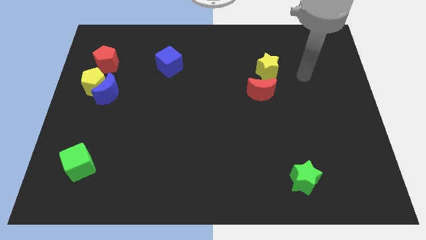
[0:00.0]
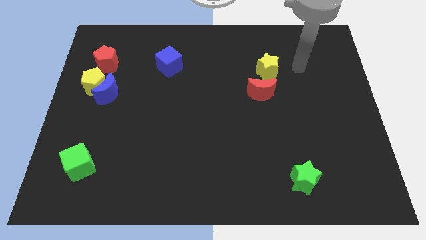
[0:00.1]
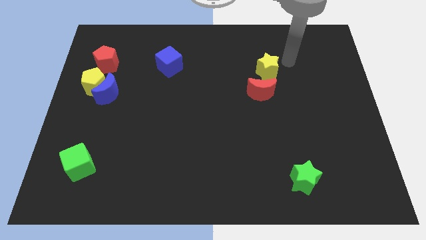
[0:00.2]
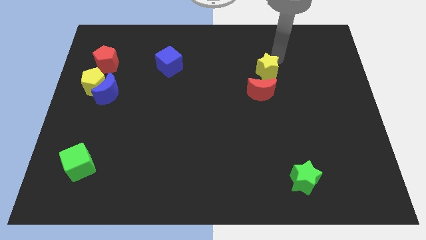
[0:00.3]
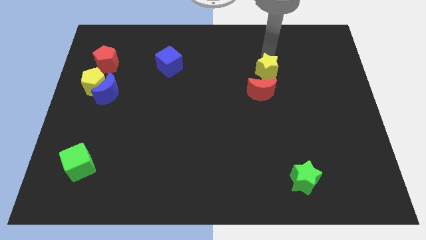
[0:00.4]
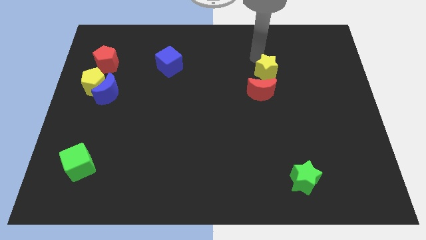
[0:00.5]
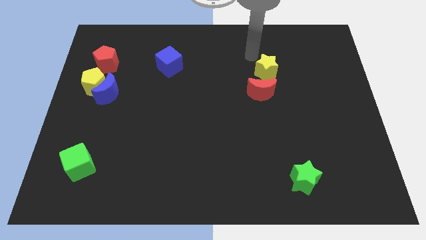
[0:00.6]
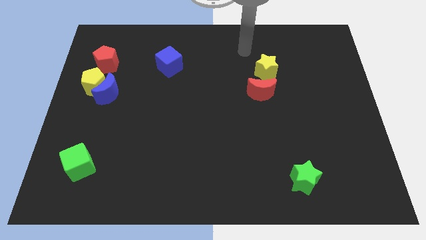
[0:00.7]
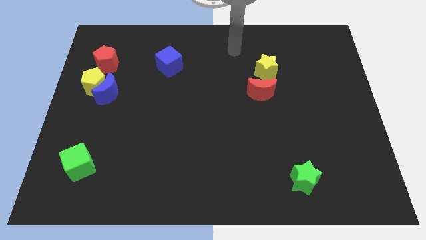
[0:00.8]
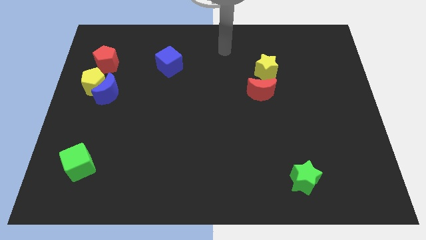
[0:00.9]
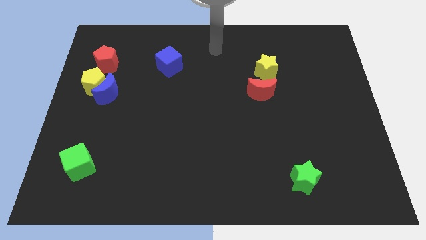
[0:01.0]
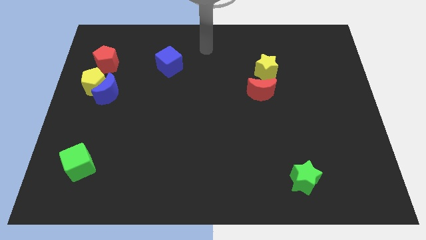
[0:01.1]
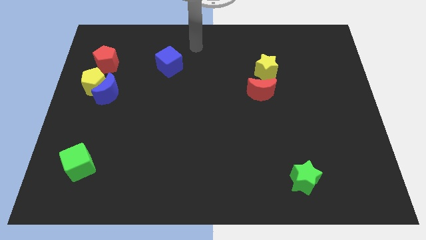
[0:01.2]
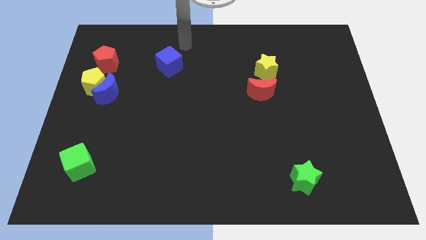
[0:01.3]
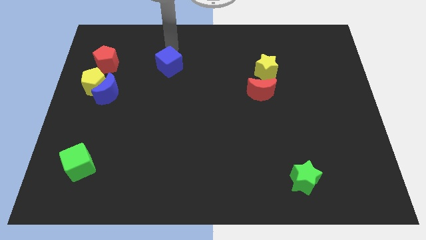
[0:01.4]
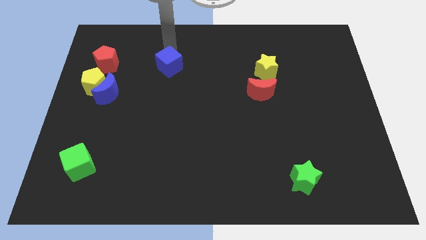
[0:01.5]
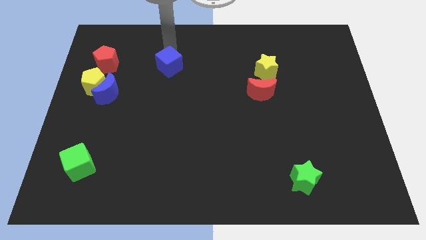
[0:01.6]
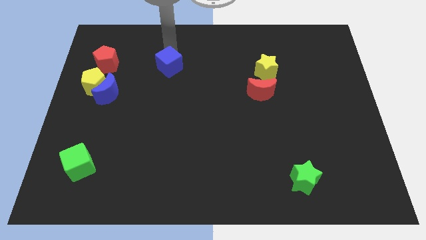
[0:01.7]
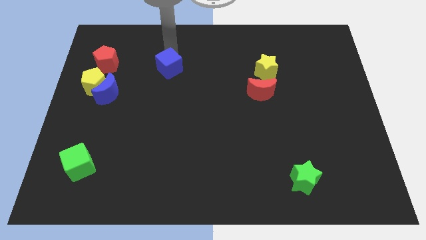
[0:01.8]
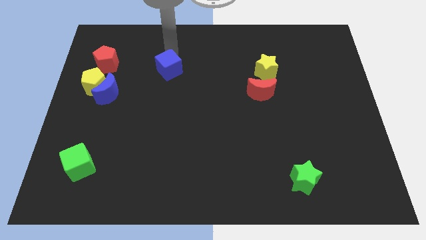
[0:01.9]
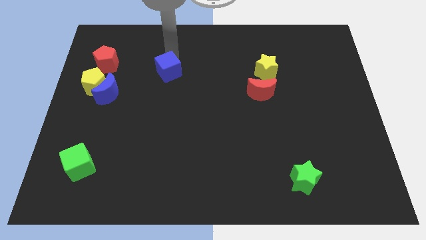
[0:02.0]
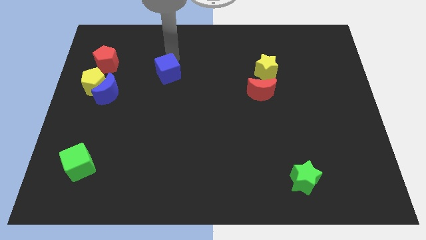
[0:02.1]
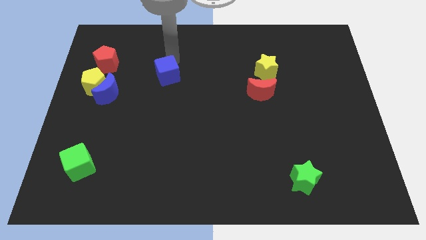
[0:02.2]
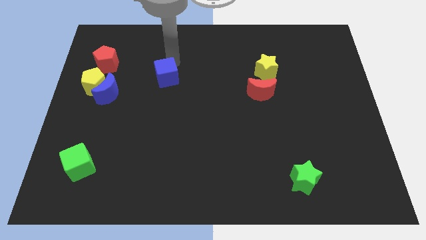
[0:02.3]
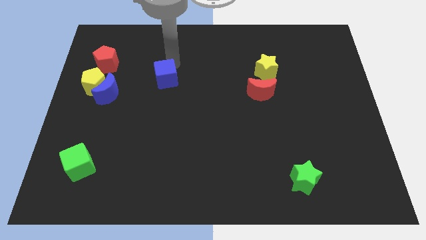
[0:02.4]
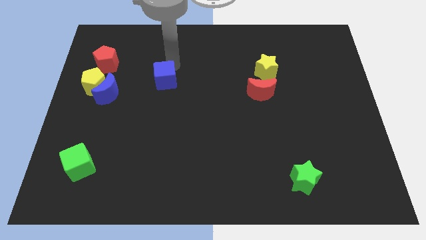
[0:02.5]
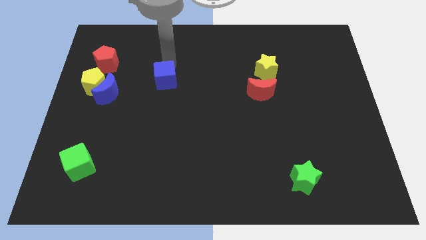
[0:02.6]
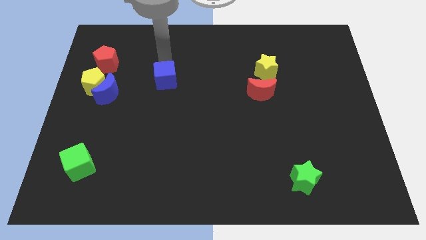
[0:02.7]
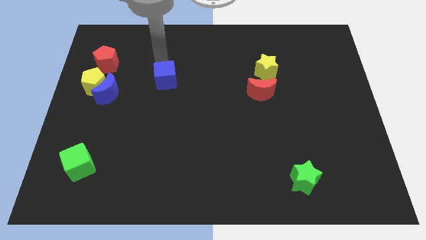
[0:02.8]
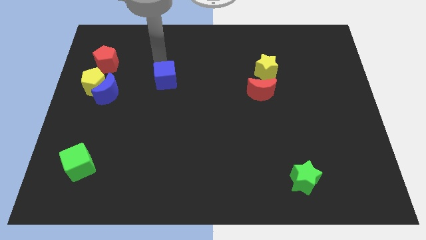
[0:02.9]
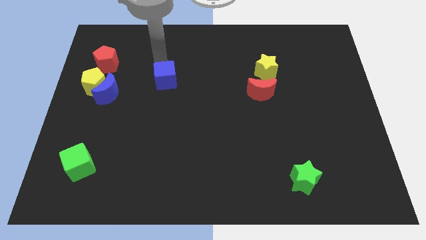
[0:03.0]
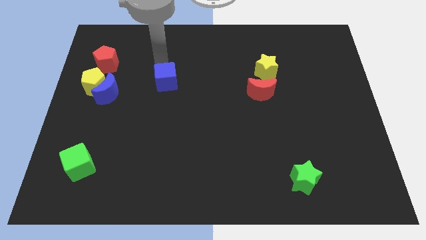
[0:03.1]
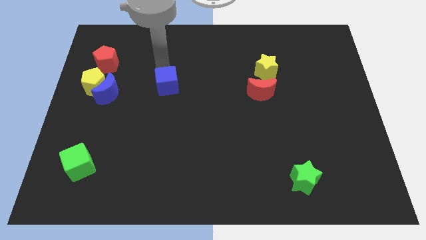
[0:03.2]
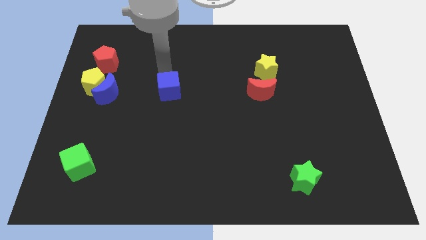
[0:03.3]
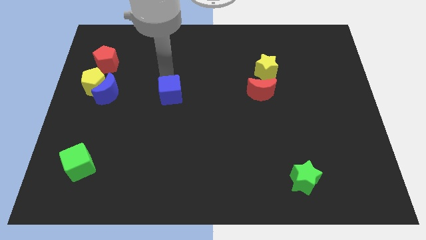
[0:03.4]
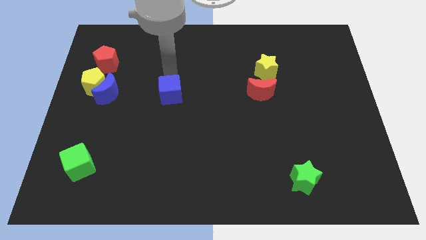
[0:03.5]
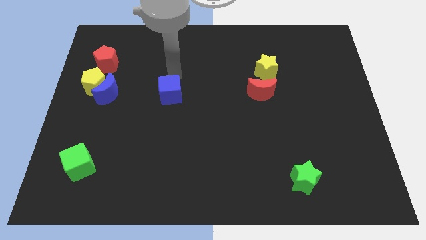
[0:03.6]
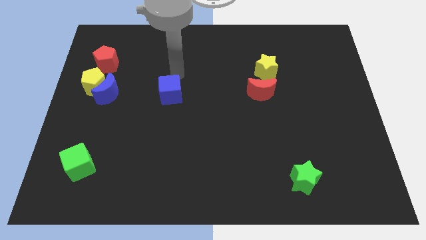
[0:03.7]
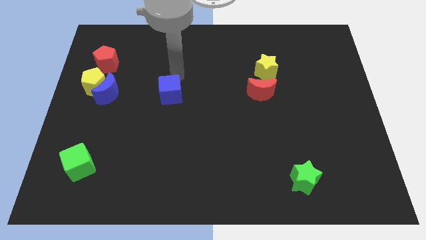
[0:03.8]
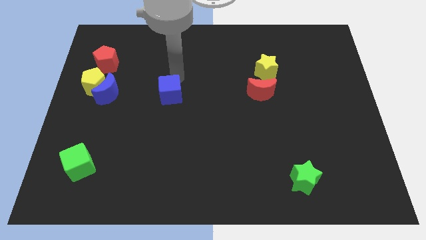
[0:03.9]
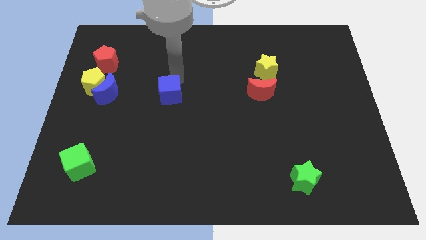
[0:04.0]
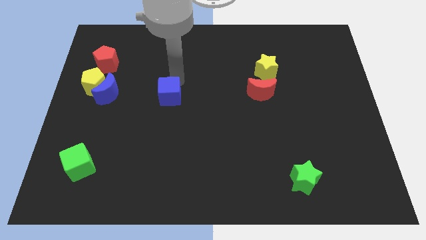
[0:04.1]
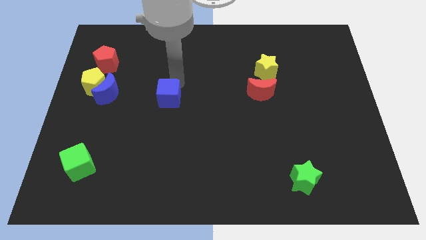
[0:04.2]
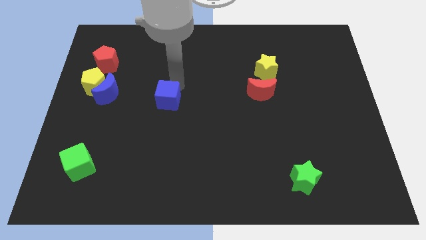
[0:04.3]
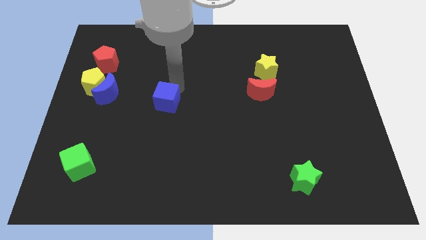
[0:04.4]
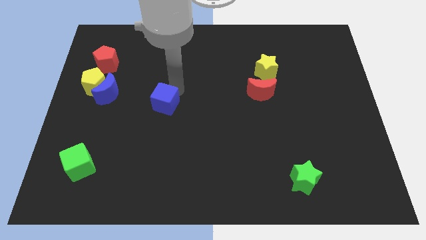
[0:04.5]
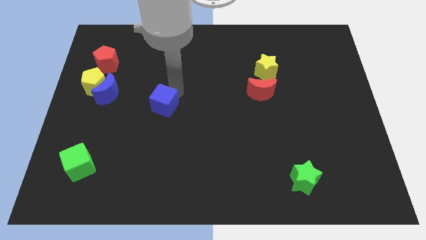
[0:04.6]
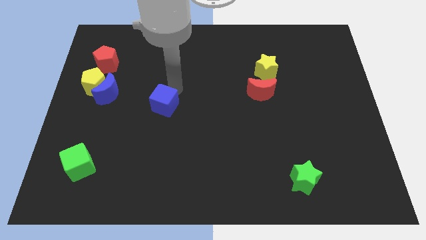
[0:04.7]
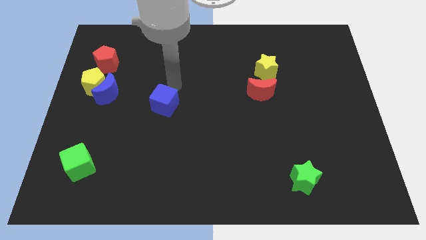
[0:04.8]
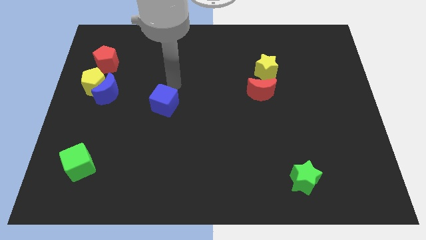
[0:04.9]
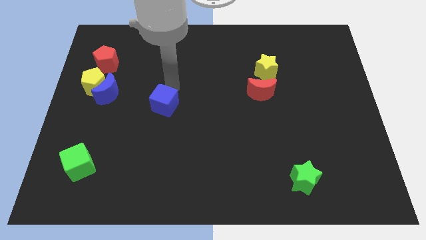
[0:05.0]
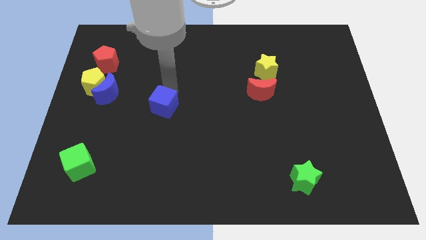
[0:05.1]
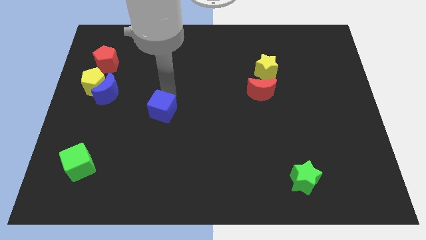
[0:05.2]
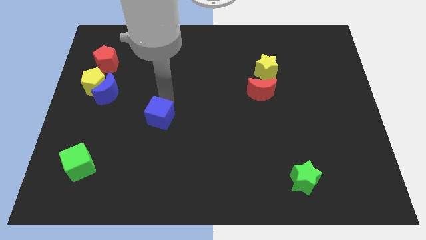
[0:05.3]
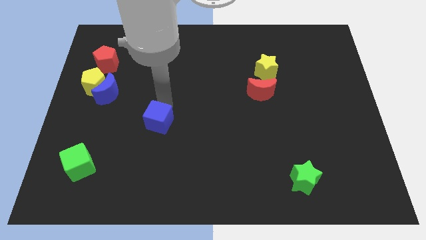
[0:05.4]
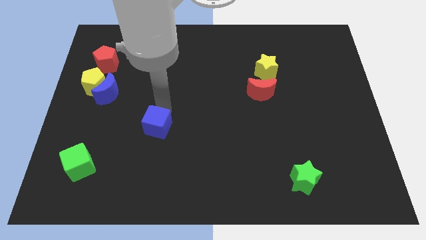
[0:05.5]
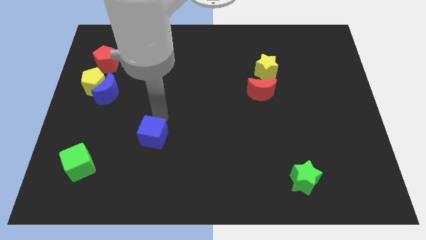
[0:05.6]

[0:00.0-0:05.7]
push the blue cube downwards

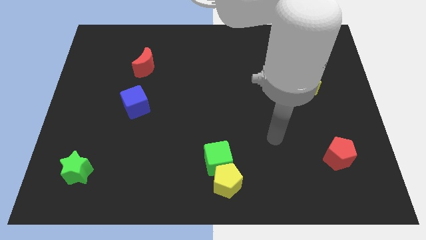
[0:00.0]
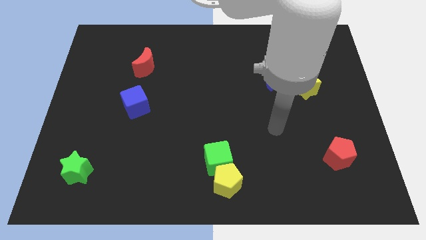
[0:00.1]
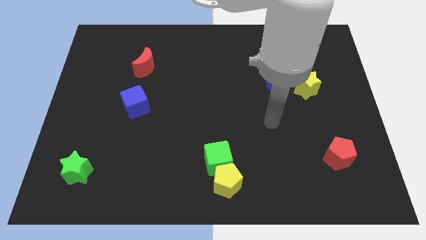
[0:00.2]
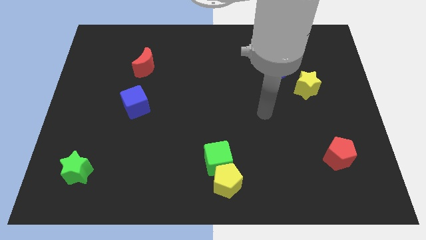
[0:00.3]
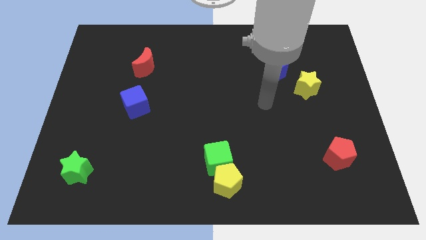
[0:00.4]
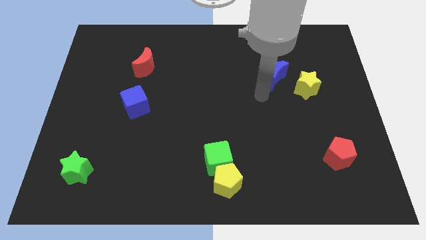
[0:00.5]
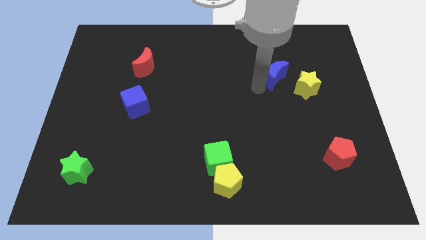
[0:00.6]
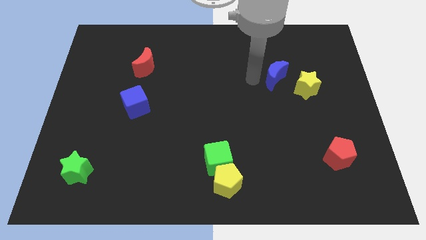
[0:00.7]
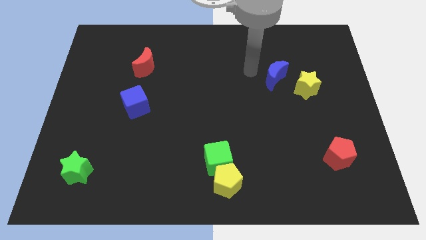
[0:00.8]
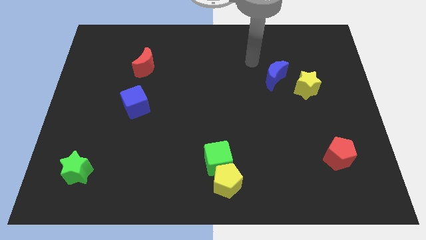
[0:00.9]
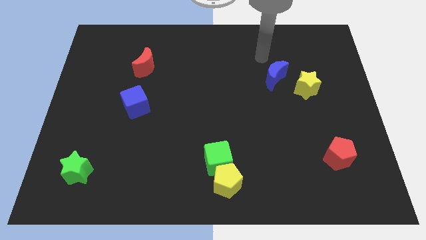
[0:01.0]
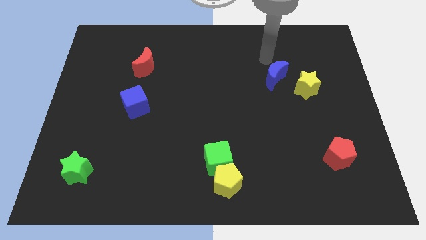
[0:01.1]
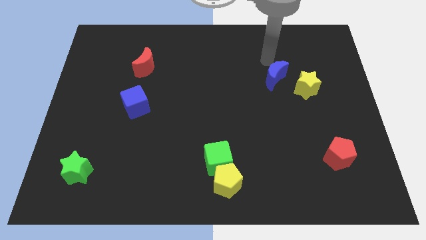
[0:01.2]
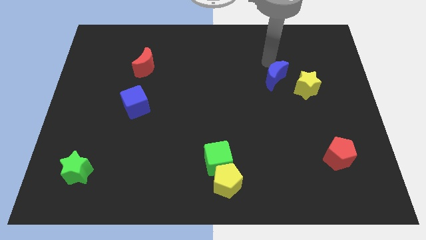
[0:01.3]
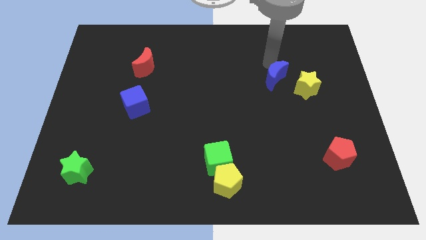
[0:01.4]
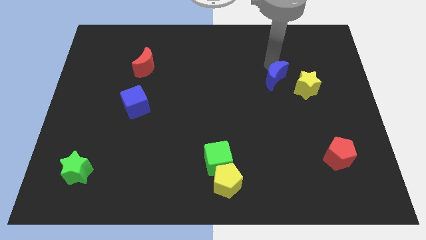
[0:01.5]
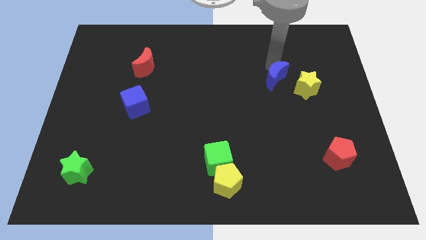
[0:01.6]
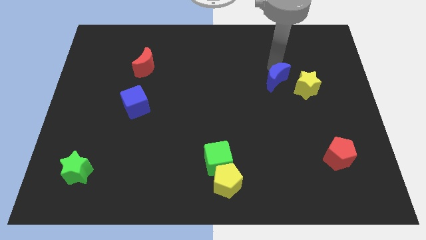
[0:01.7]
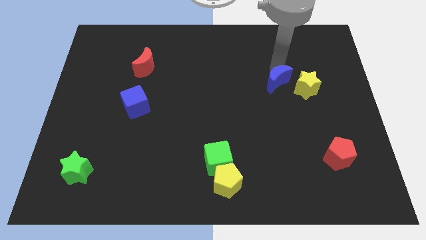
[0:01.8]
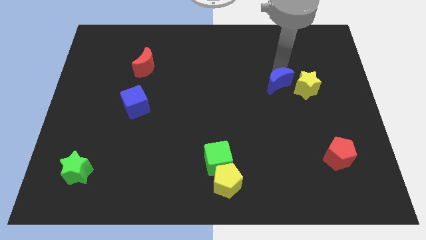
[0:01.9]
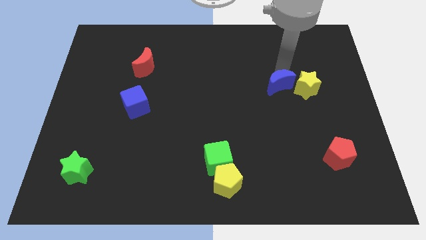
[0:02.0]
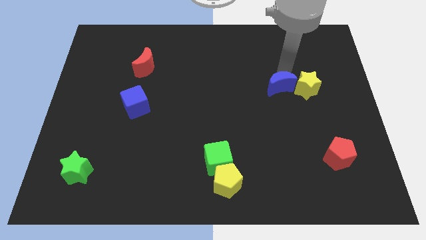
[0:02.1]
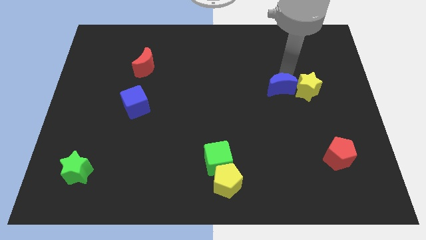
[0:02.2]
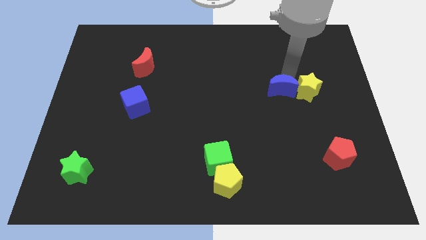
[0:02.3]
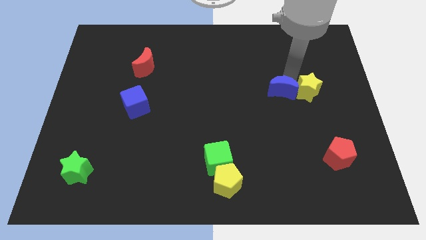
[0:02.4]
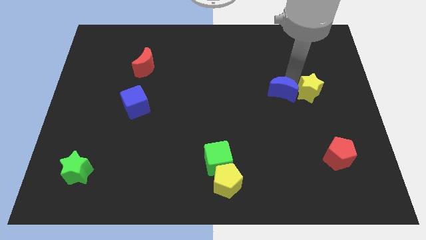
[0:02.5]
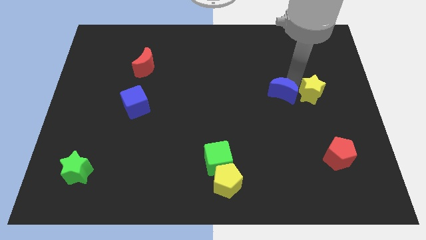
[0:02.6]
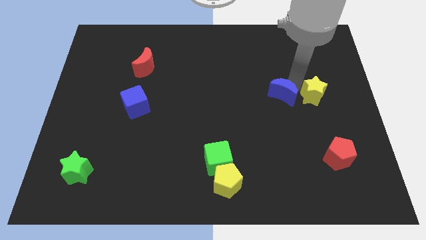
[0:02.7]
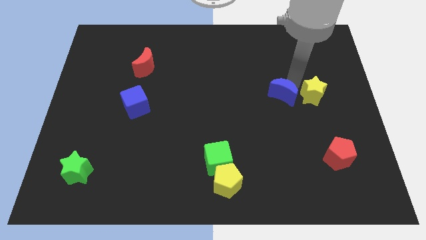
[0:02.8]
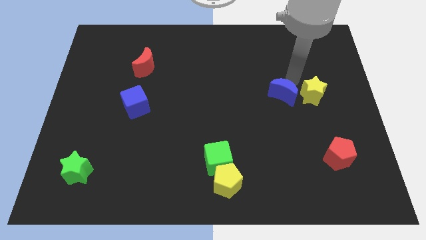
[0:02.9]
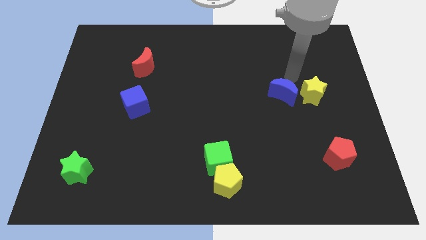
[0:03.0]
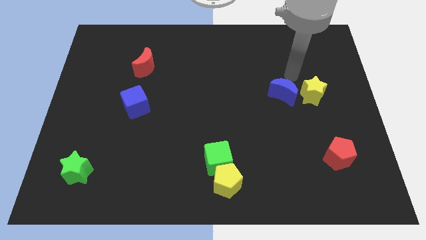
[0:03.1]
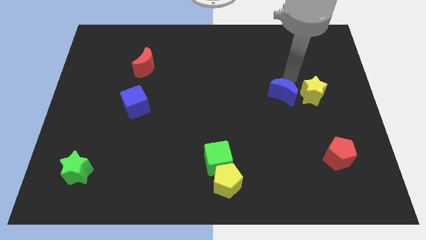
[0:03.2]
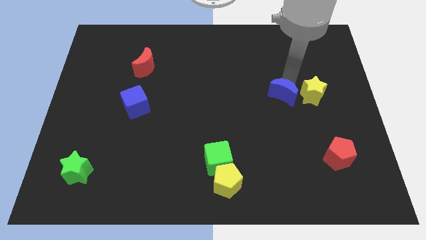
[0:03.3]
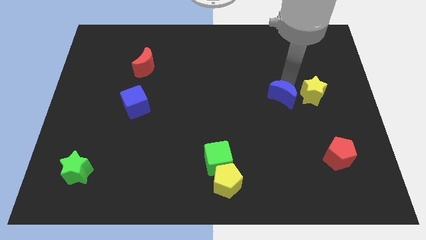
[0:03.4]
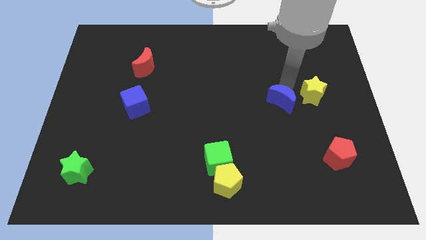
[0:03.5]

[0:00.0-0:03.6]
slide the blue moon slightly down
